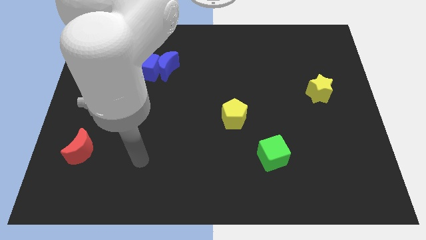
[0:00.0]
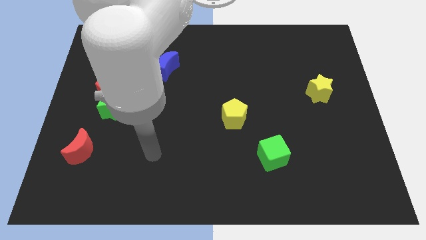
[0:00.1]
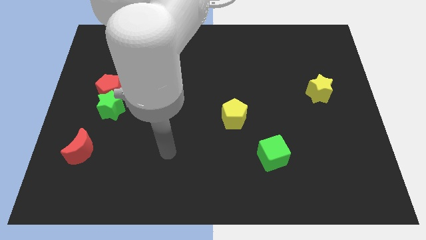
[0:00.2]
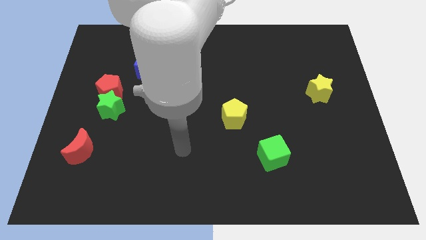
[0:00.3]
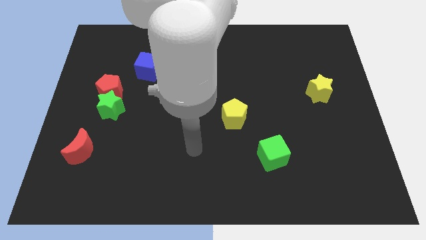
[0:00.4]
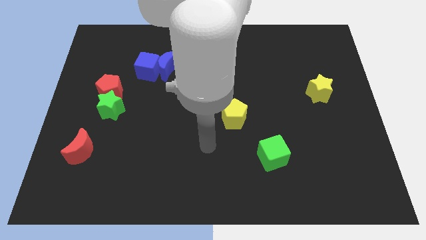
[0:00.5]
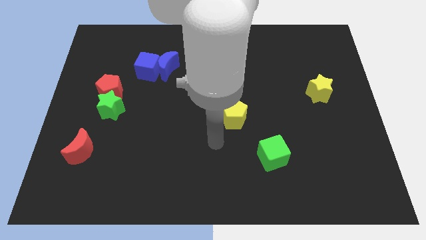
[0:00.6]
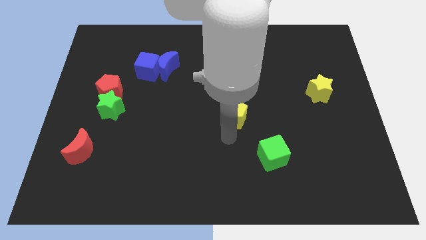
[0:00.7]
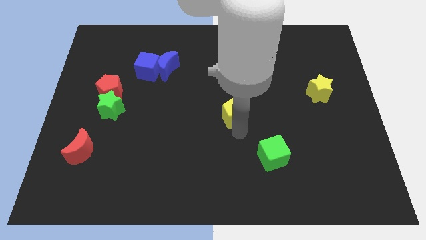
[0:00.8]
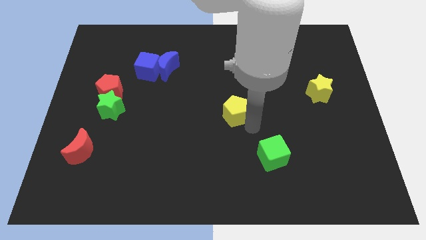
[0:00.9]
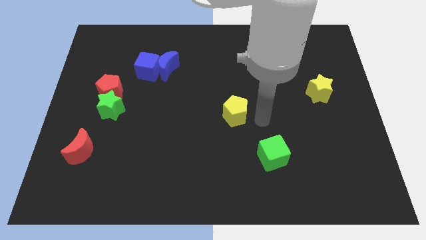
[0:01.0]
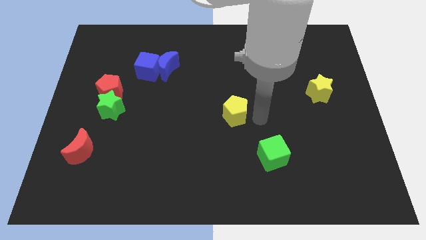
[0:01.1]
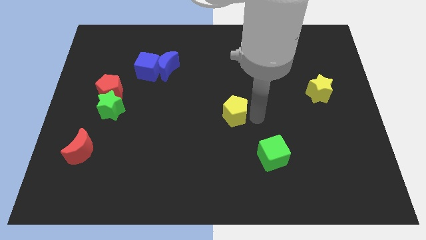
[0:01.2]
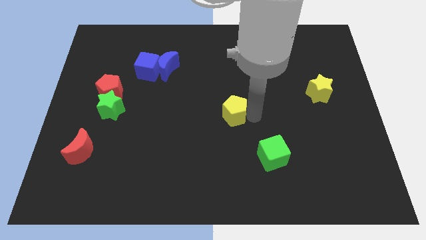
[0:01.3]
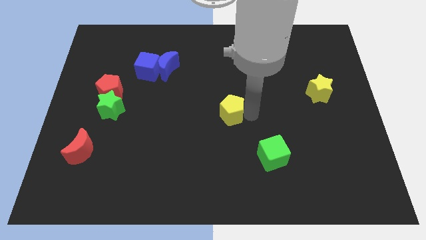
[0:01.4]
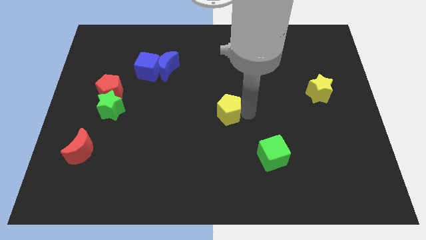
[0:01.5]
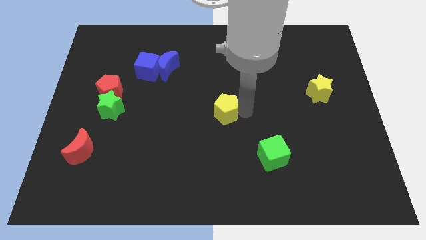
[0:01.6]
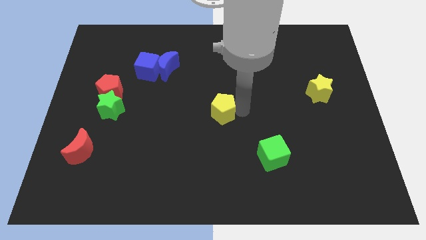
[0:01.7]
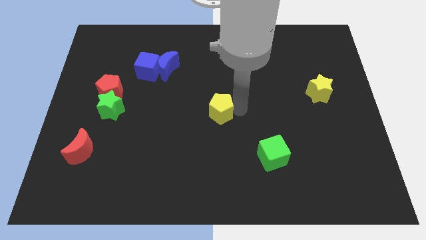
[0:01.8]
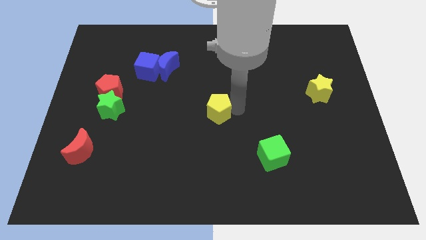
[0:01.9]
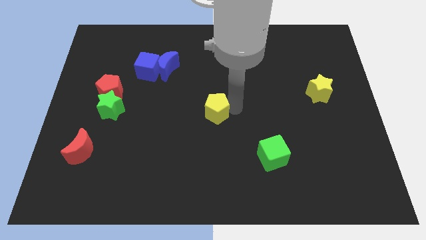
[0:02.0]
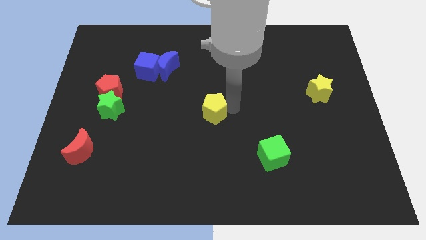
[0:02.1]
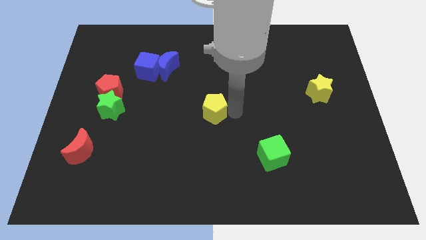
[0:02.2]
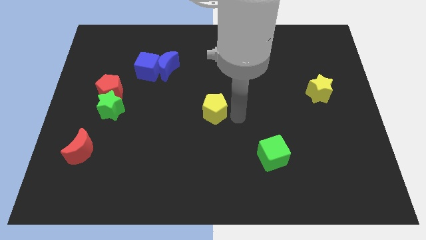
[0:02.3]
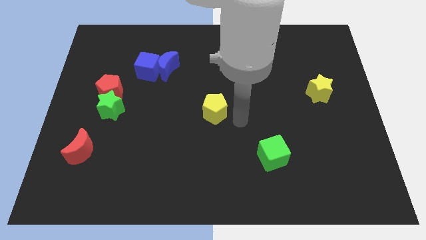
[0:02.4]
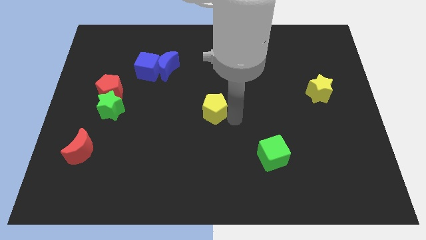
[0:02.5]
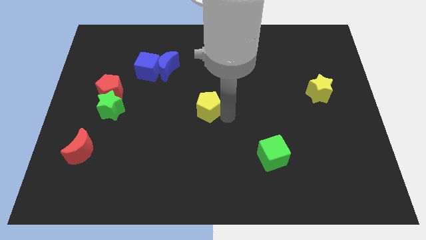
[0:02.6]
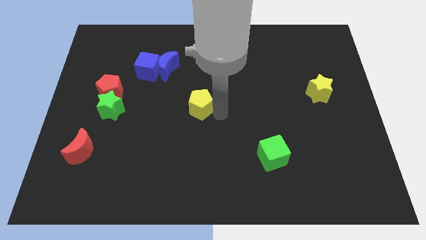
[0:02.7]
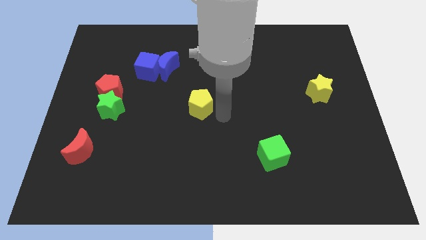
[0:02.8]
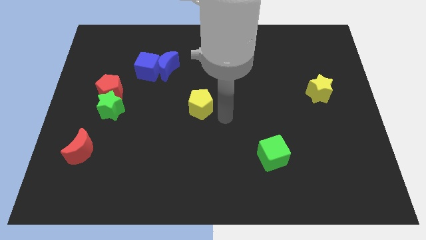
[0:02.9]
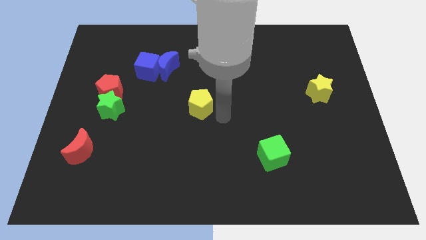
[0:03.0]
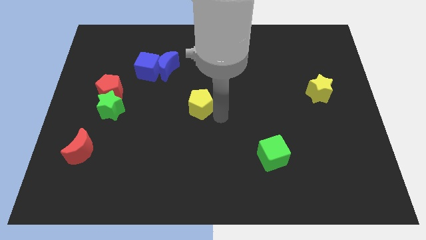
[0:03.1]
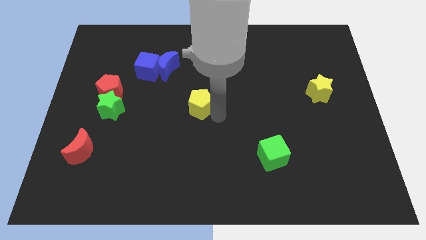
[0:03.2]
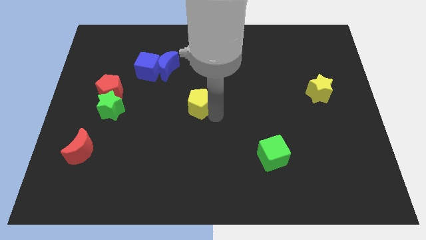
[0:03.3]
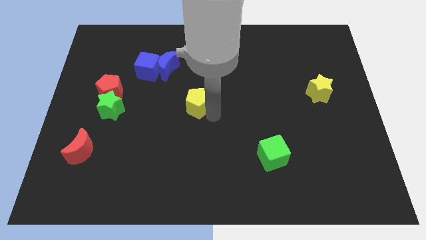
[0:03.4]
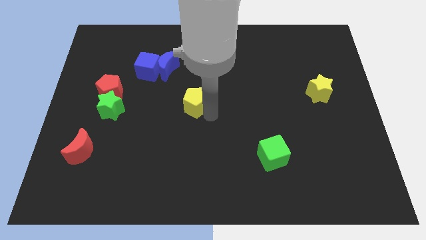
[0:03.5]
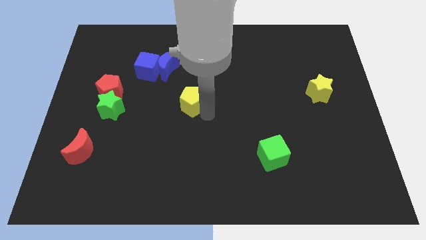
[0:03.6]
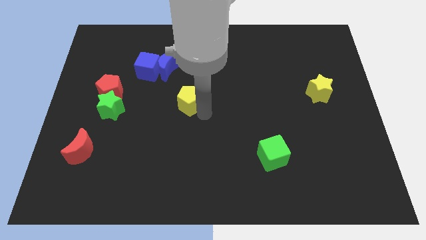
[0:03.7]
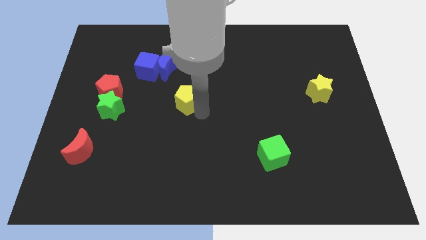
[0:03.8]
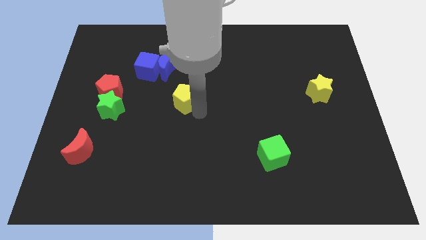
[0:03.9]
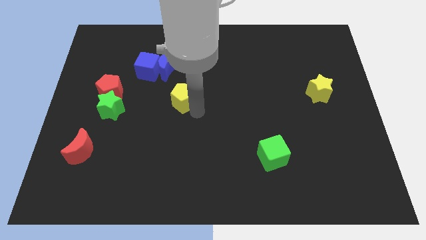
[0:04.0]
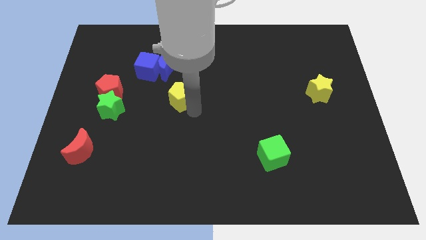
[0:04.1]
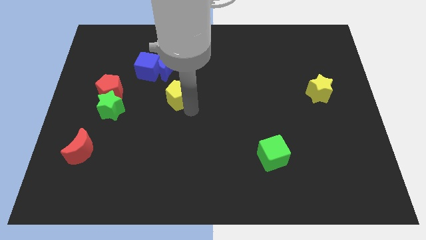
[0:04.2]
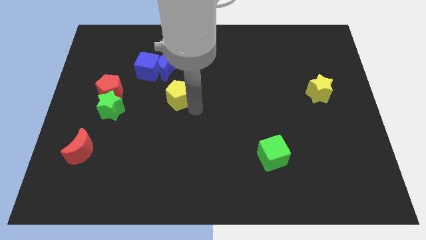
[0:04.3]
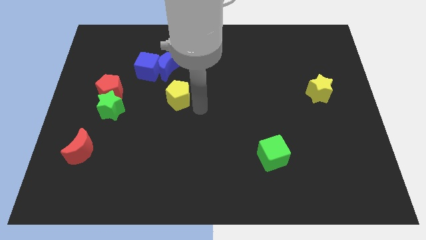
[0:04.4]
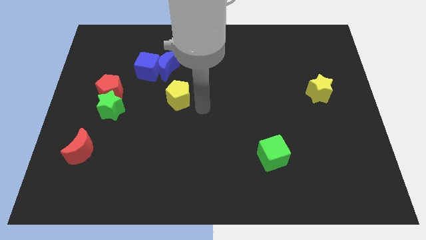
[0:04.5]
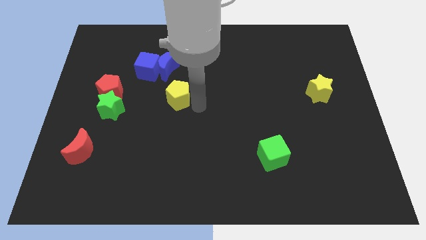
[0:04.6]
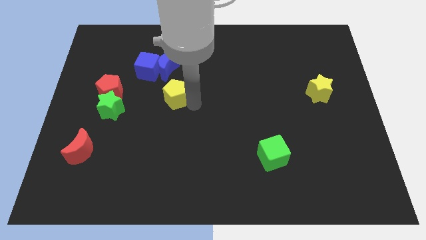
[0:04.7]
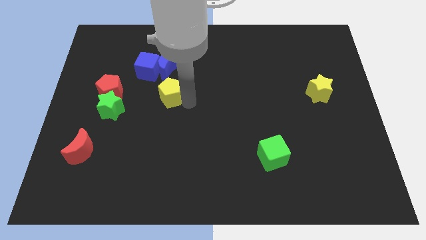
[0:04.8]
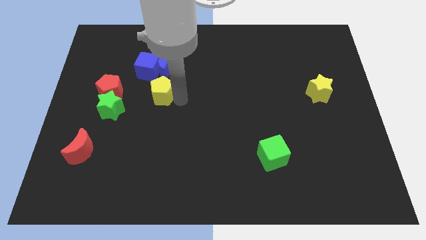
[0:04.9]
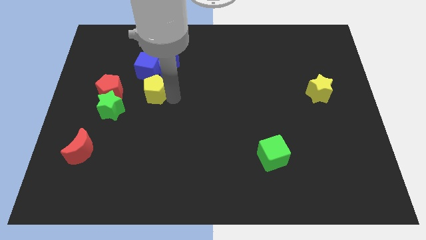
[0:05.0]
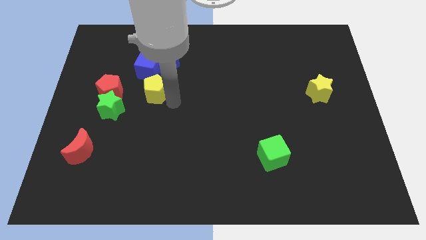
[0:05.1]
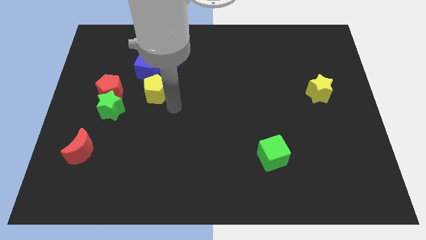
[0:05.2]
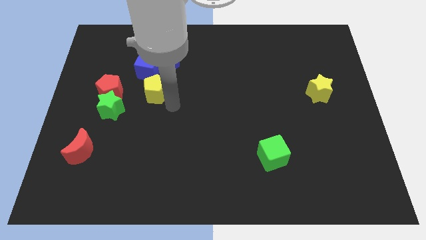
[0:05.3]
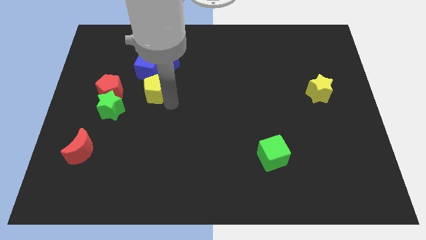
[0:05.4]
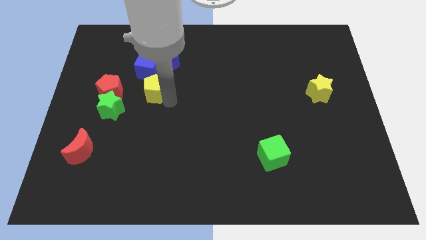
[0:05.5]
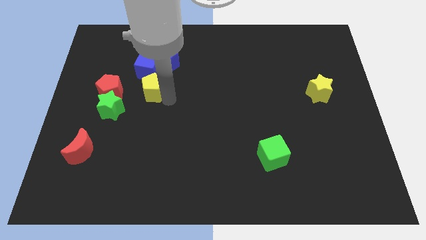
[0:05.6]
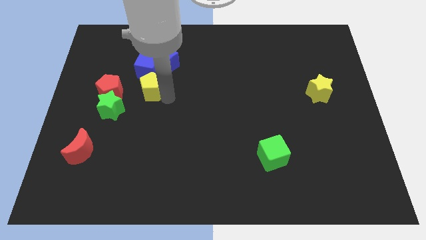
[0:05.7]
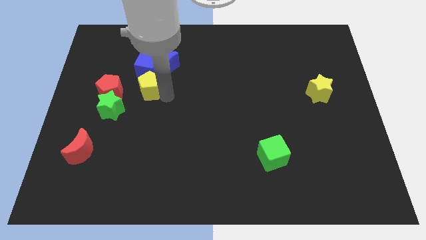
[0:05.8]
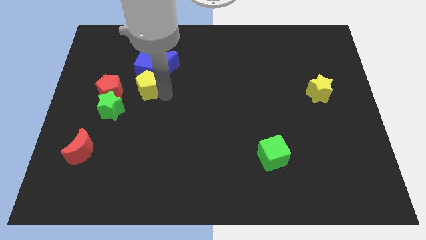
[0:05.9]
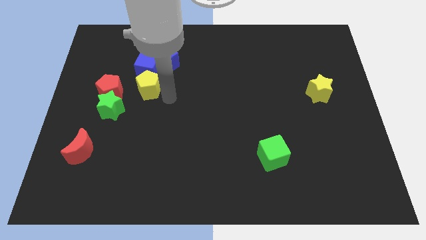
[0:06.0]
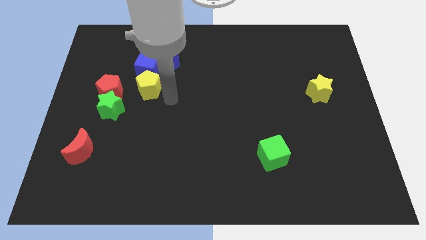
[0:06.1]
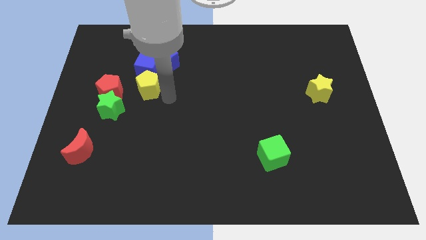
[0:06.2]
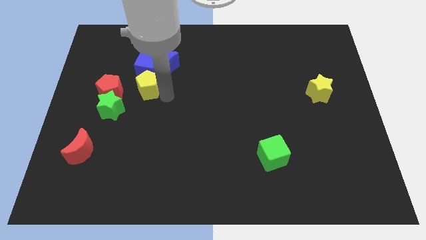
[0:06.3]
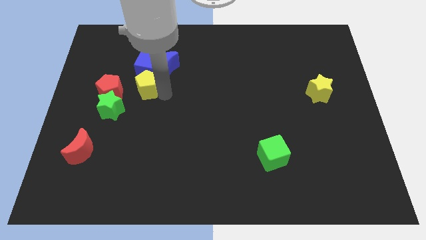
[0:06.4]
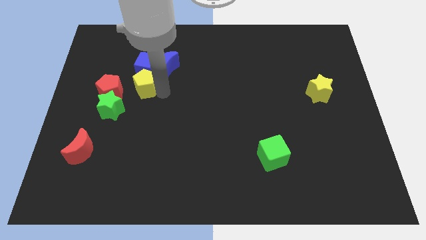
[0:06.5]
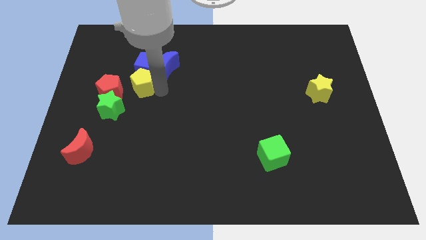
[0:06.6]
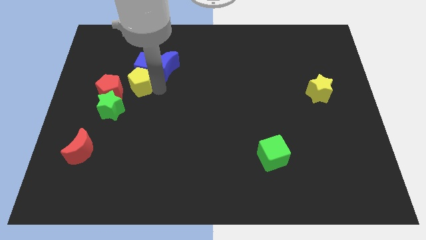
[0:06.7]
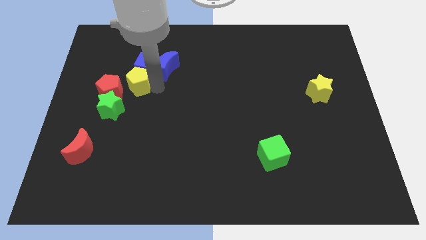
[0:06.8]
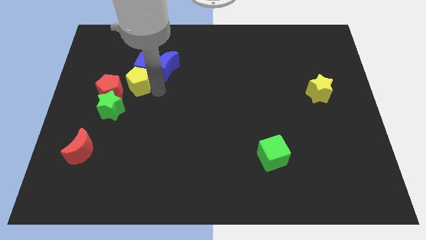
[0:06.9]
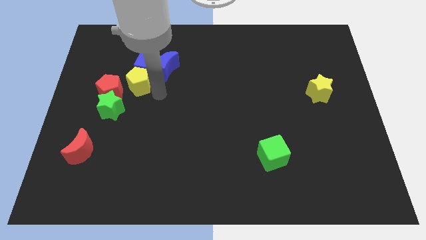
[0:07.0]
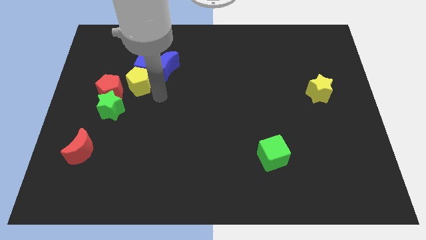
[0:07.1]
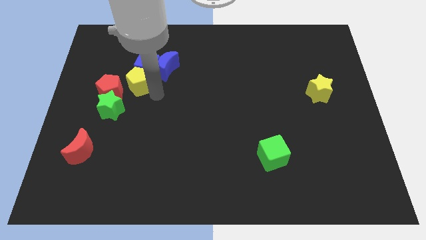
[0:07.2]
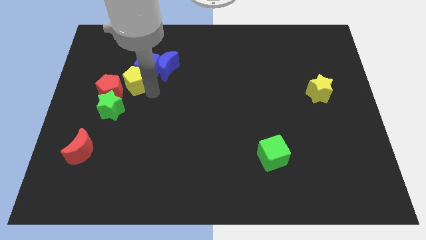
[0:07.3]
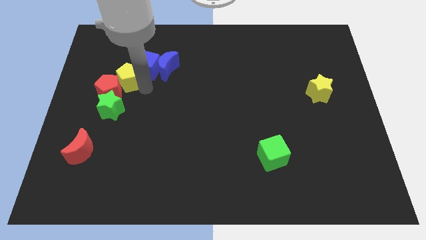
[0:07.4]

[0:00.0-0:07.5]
slide the yellow pentagon to the left of the blue cube
